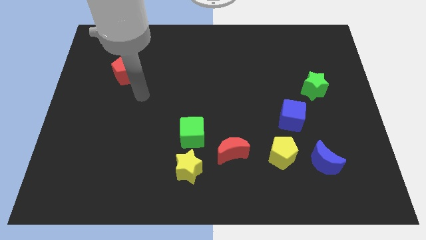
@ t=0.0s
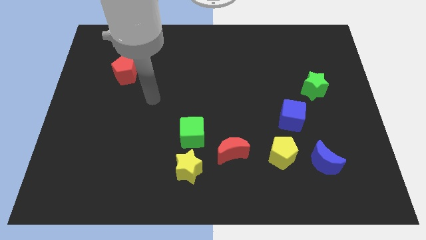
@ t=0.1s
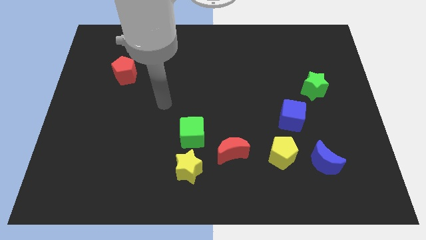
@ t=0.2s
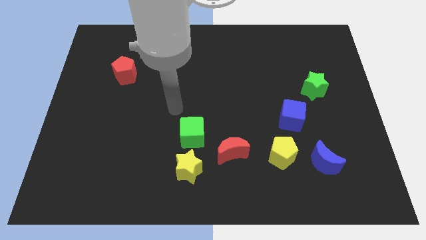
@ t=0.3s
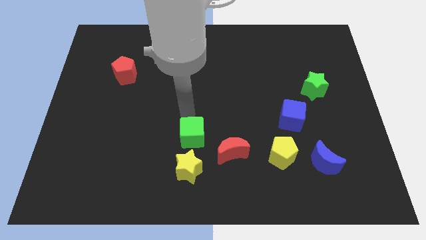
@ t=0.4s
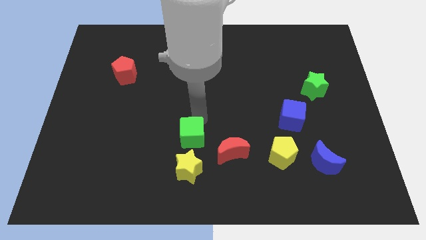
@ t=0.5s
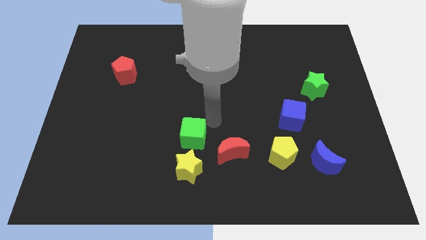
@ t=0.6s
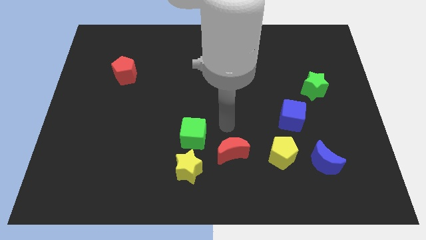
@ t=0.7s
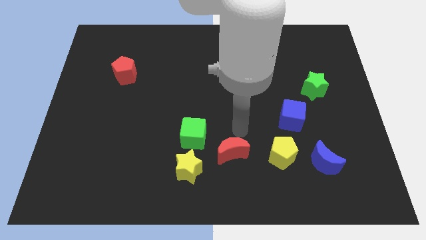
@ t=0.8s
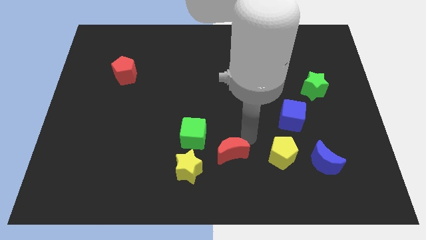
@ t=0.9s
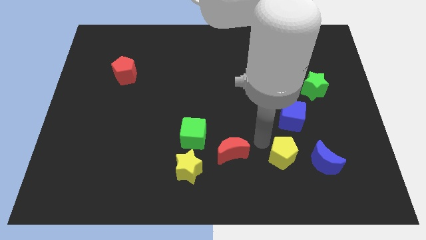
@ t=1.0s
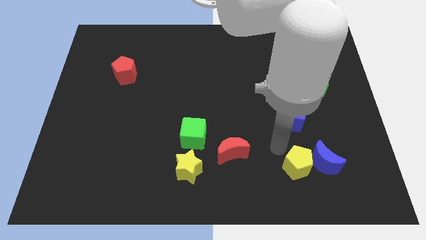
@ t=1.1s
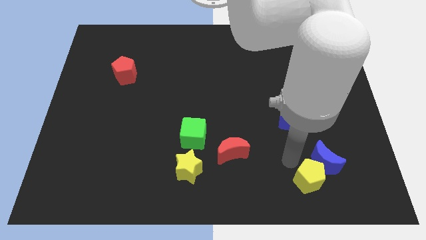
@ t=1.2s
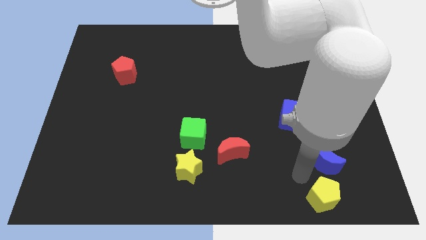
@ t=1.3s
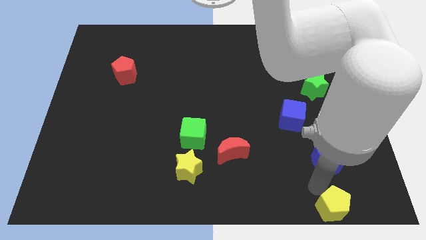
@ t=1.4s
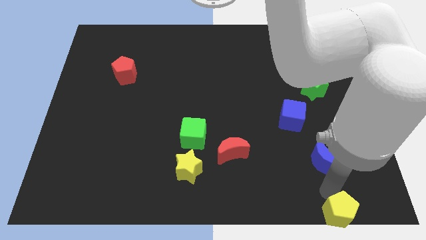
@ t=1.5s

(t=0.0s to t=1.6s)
move the blue moon away from the yellow pentagon

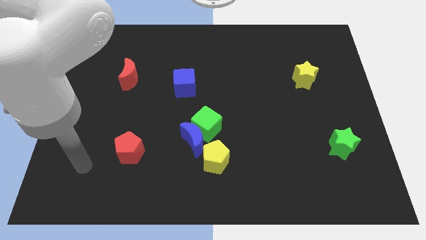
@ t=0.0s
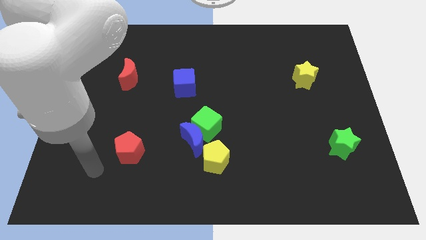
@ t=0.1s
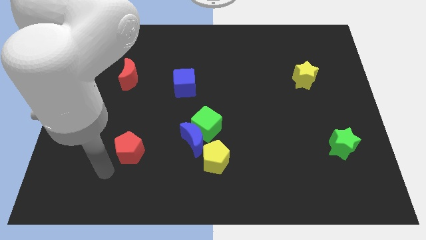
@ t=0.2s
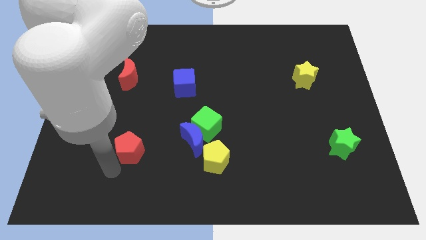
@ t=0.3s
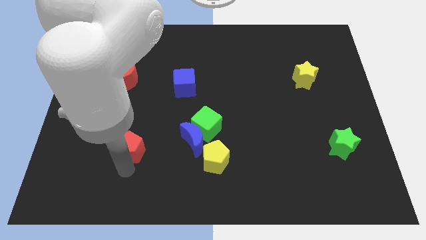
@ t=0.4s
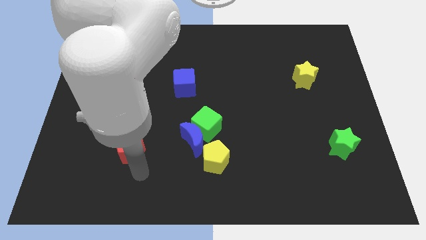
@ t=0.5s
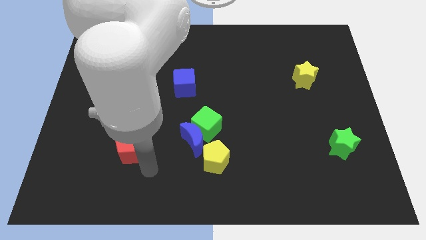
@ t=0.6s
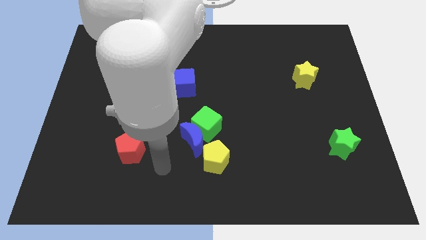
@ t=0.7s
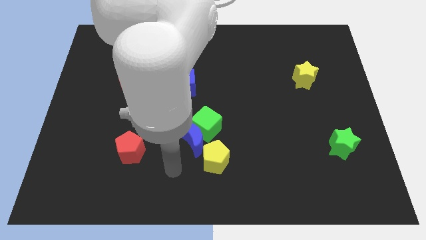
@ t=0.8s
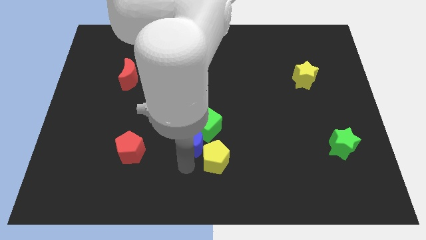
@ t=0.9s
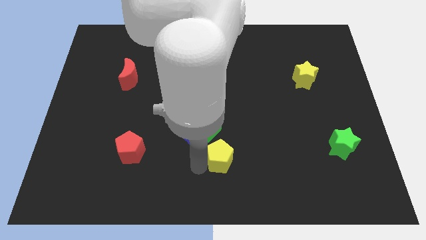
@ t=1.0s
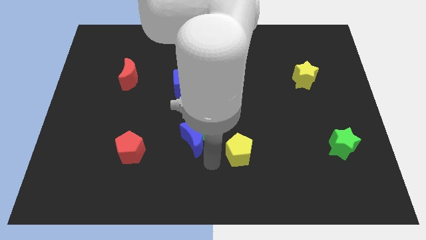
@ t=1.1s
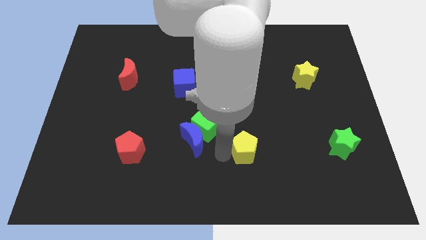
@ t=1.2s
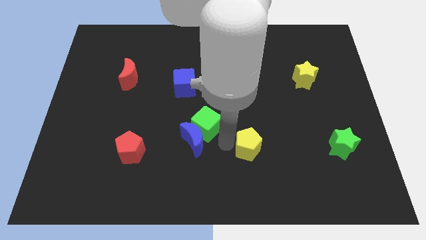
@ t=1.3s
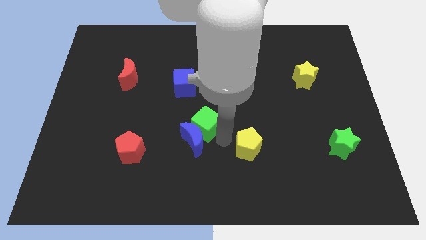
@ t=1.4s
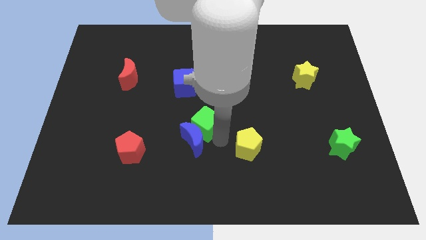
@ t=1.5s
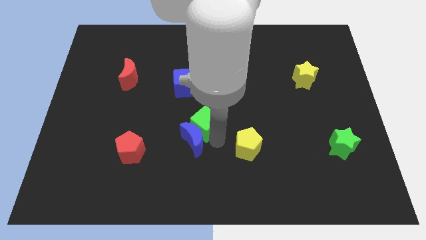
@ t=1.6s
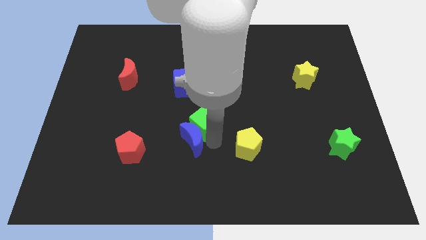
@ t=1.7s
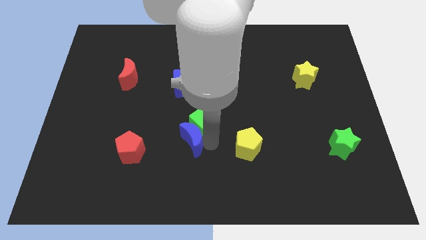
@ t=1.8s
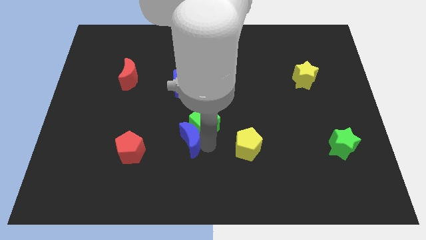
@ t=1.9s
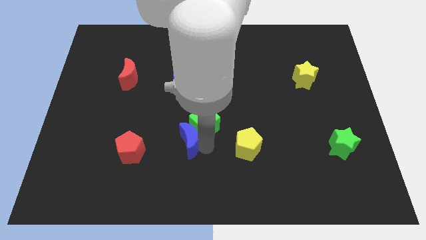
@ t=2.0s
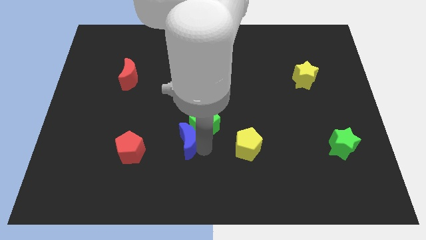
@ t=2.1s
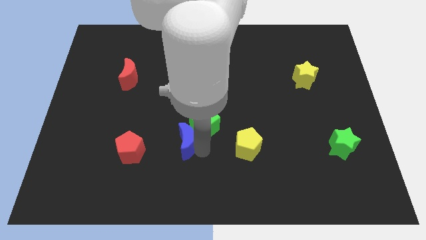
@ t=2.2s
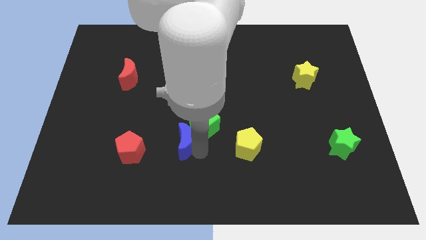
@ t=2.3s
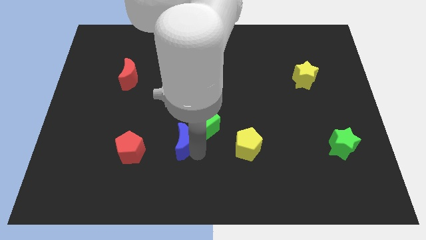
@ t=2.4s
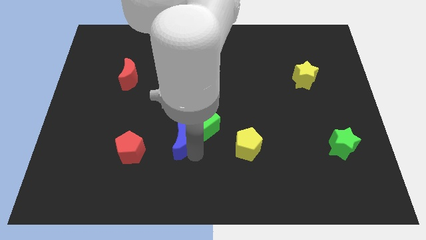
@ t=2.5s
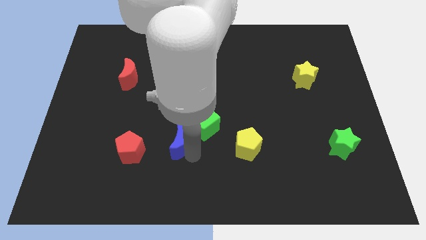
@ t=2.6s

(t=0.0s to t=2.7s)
separate the blue moon from the green cube and yellow pentagon

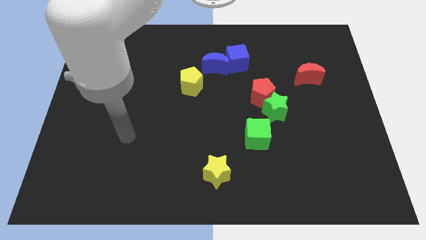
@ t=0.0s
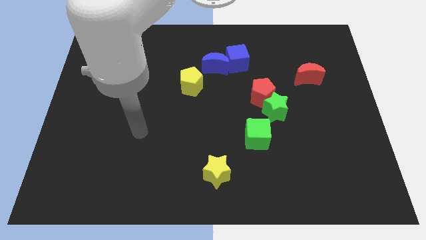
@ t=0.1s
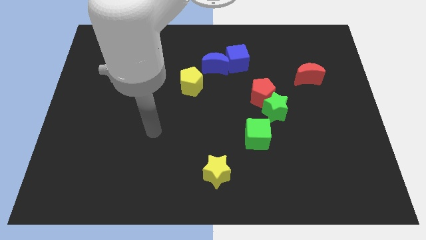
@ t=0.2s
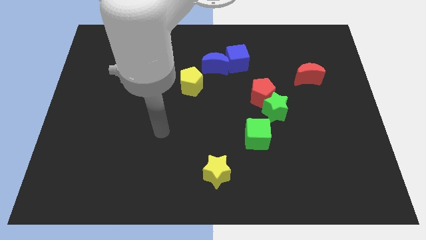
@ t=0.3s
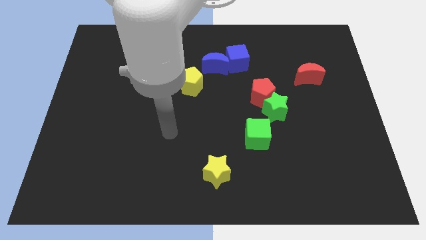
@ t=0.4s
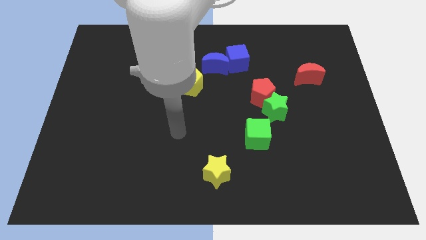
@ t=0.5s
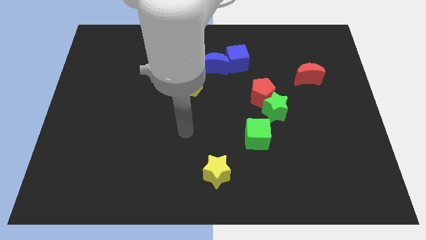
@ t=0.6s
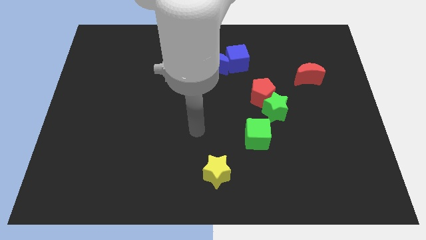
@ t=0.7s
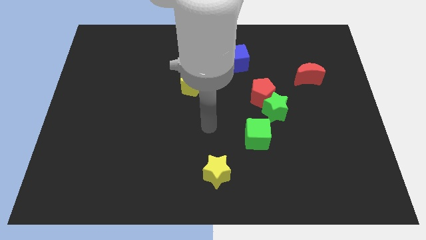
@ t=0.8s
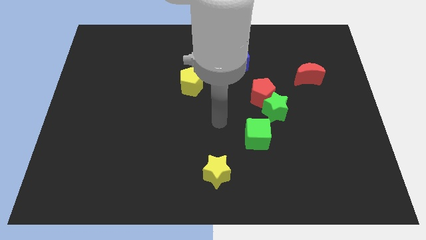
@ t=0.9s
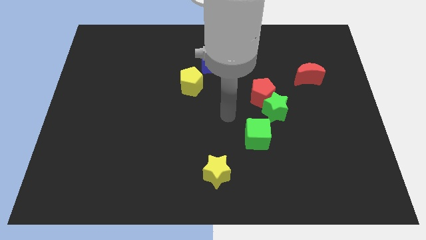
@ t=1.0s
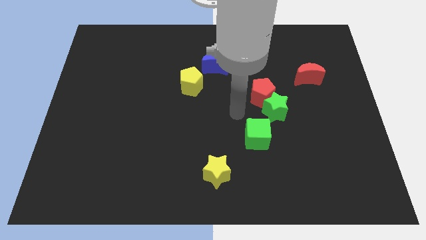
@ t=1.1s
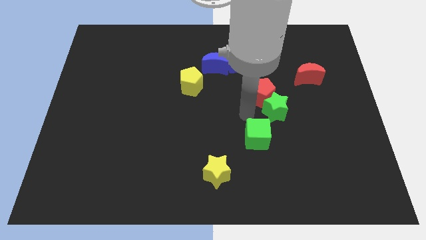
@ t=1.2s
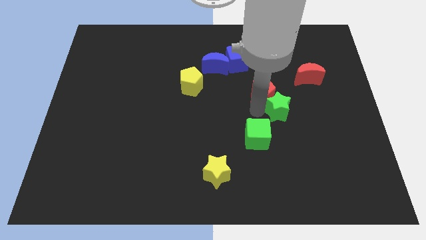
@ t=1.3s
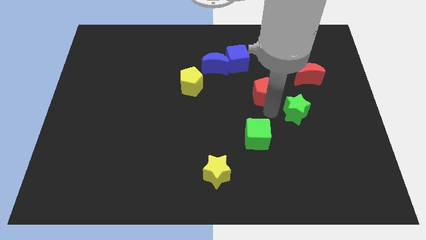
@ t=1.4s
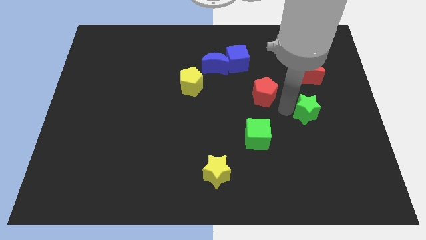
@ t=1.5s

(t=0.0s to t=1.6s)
pull the red pentagon apart from the green star

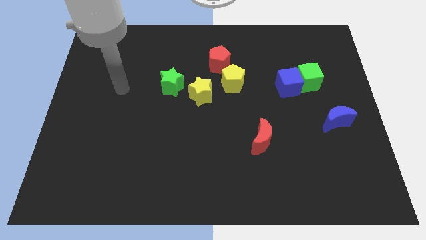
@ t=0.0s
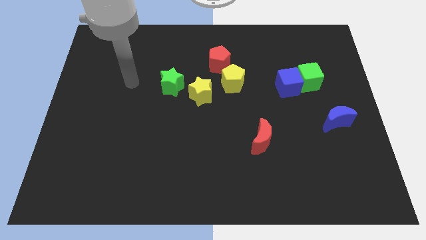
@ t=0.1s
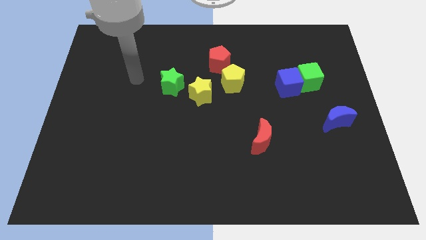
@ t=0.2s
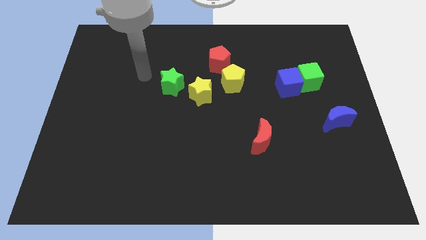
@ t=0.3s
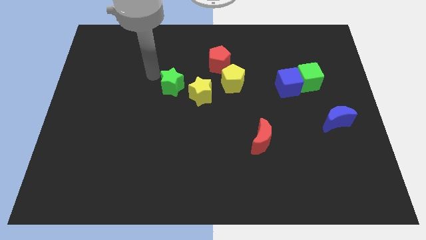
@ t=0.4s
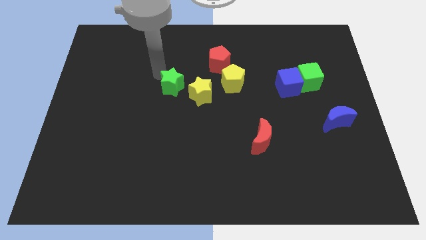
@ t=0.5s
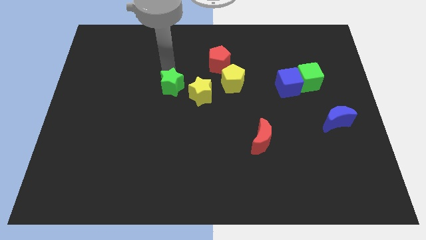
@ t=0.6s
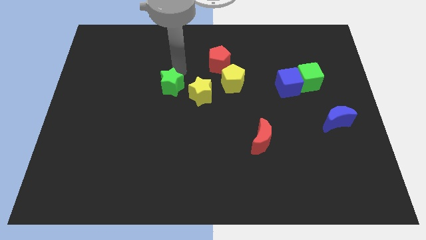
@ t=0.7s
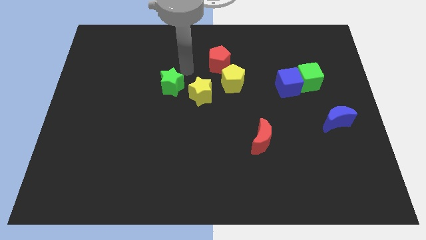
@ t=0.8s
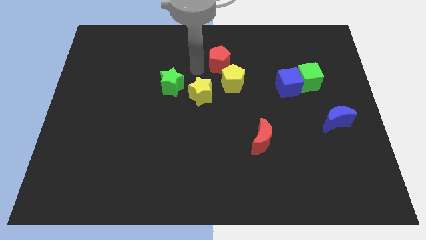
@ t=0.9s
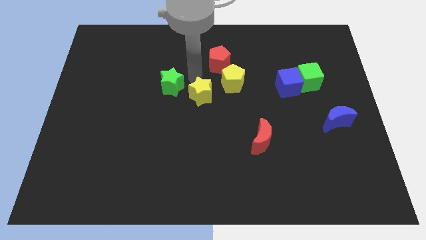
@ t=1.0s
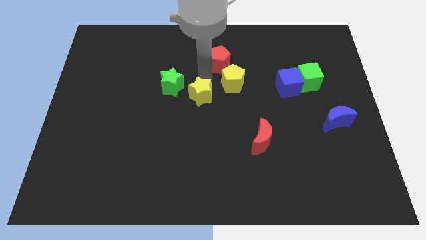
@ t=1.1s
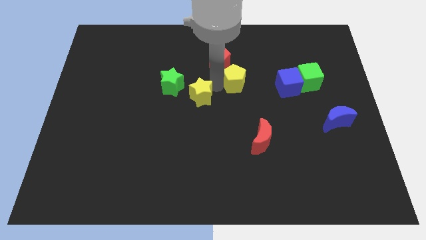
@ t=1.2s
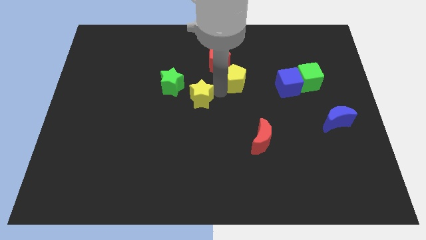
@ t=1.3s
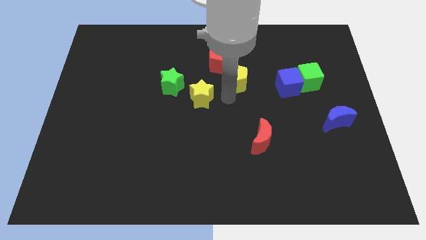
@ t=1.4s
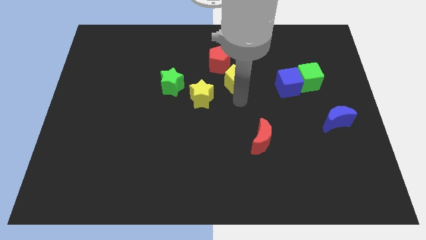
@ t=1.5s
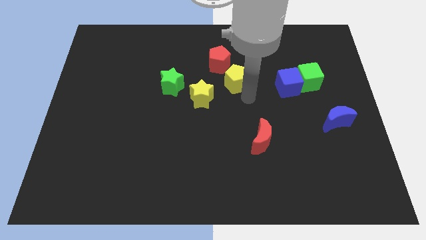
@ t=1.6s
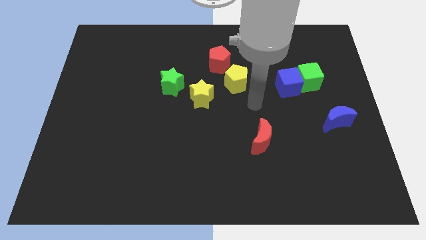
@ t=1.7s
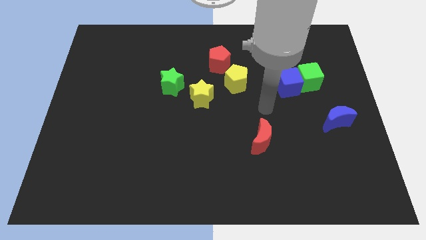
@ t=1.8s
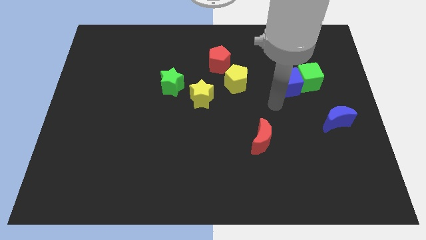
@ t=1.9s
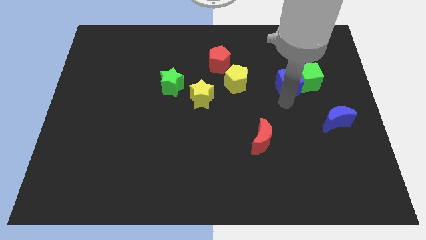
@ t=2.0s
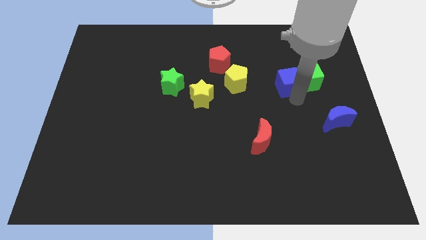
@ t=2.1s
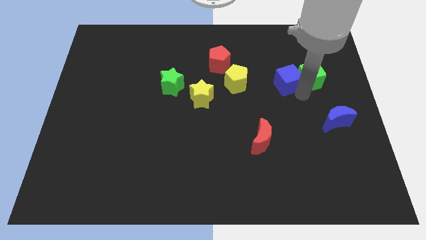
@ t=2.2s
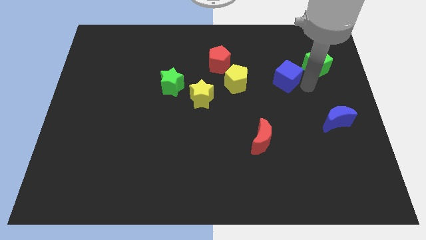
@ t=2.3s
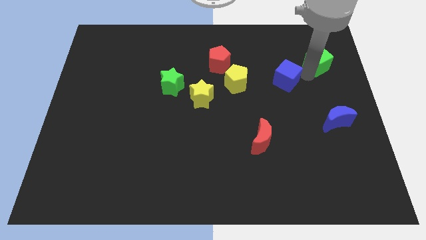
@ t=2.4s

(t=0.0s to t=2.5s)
move the blue cube away from the green cube

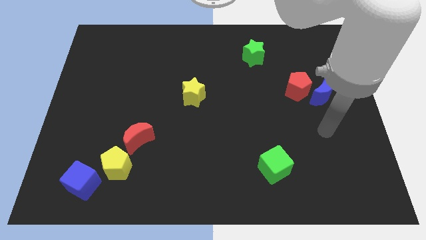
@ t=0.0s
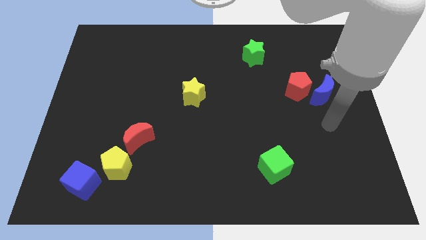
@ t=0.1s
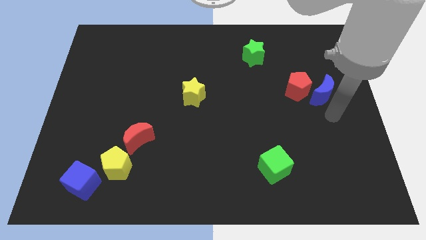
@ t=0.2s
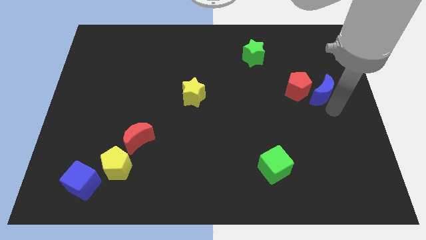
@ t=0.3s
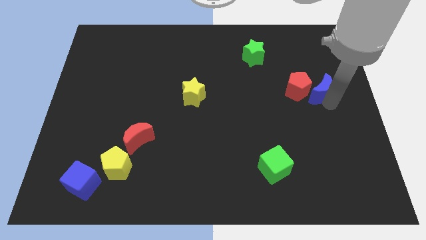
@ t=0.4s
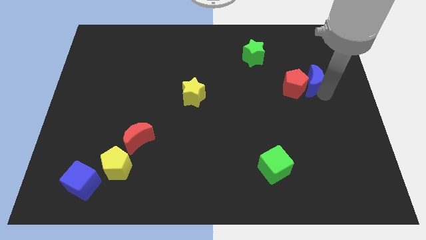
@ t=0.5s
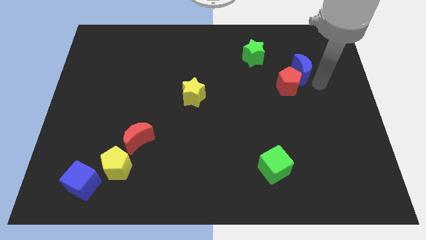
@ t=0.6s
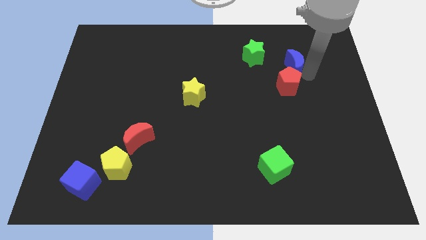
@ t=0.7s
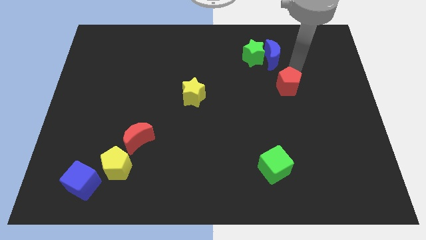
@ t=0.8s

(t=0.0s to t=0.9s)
pull the red pentagon apart from the blue moon
